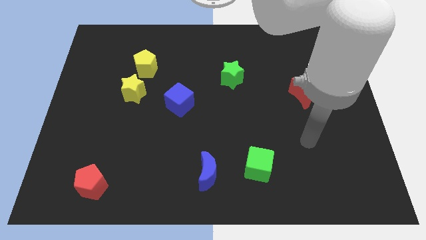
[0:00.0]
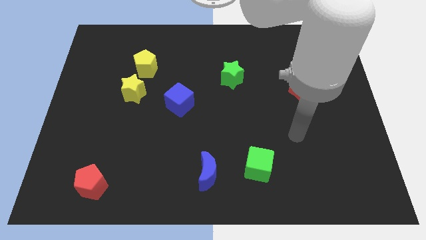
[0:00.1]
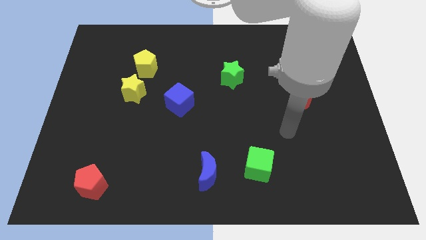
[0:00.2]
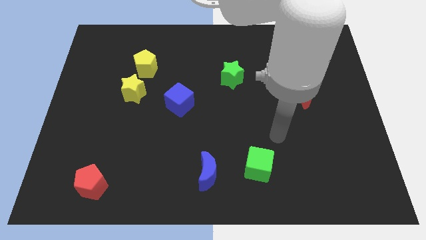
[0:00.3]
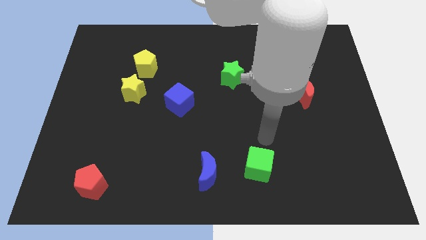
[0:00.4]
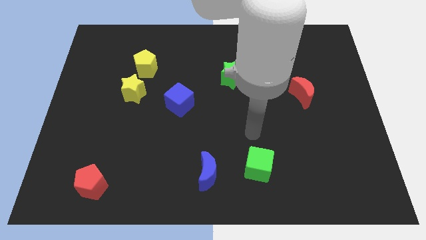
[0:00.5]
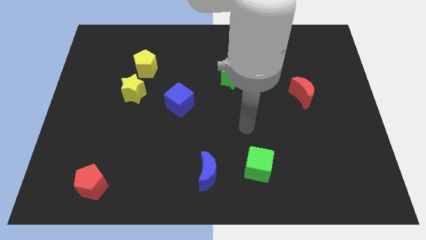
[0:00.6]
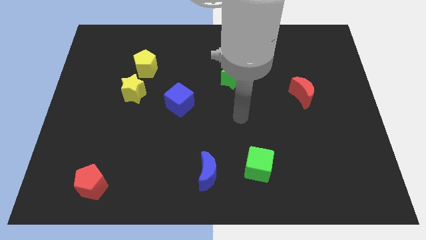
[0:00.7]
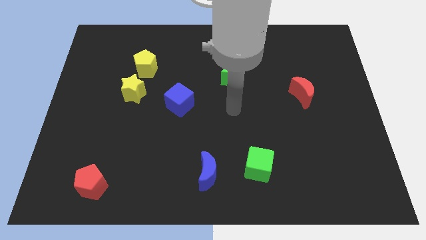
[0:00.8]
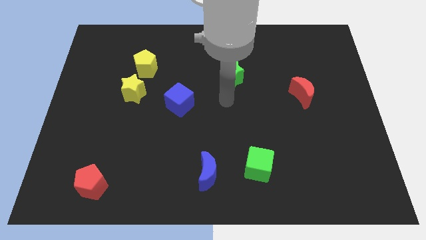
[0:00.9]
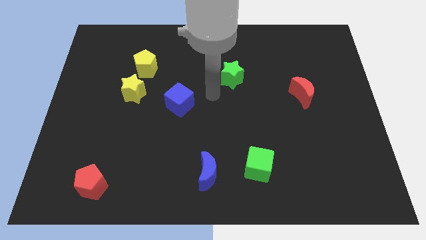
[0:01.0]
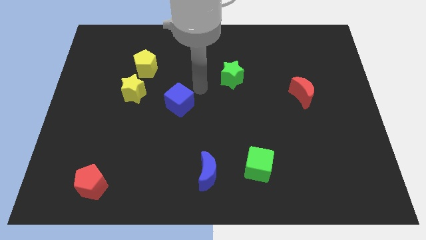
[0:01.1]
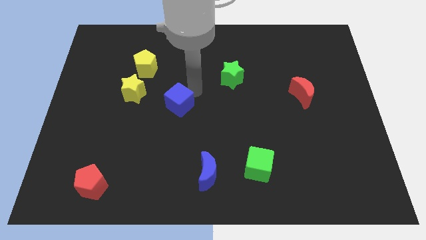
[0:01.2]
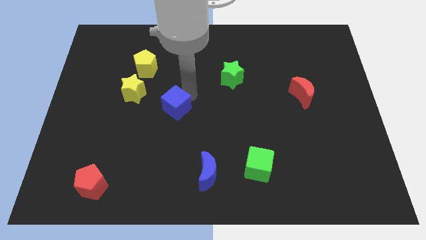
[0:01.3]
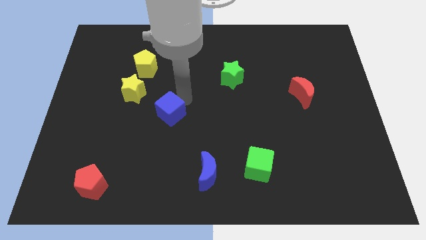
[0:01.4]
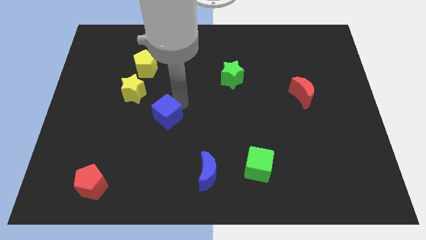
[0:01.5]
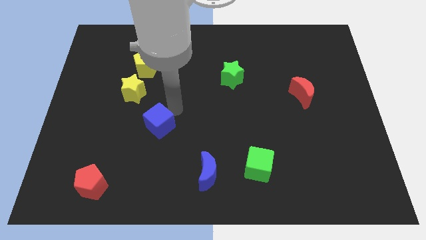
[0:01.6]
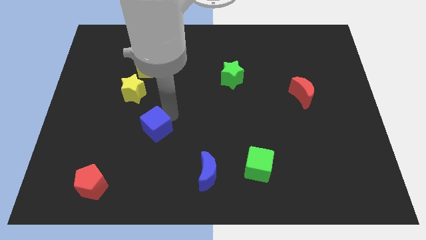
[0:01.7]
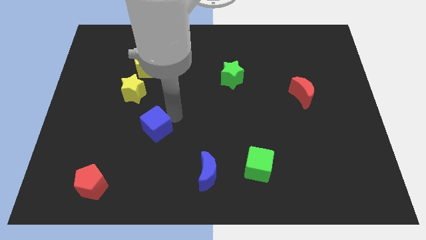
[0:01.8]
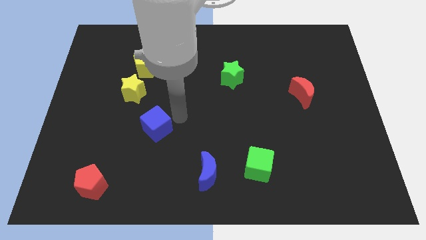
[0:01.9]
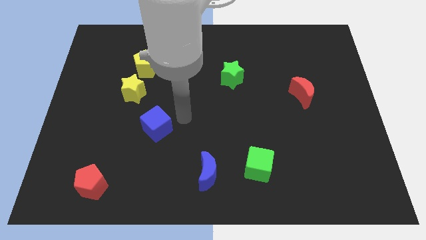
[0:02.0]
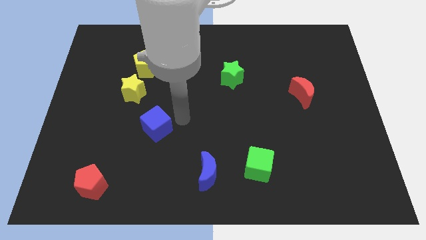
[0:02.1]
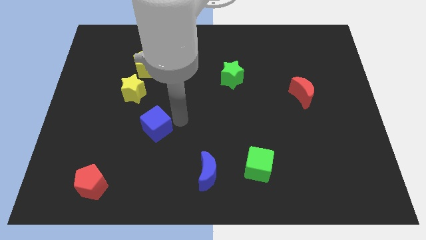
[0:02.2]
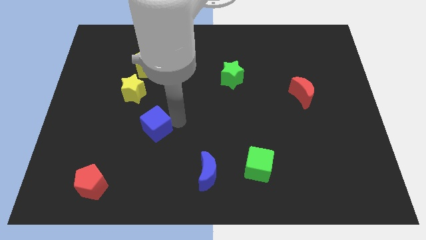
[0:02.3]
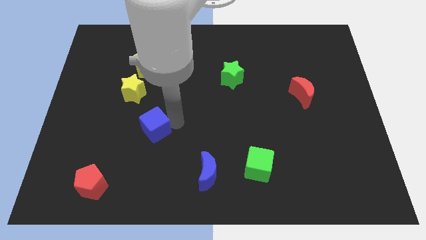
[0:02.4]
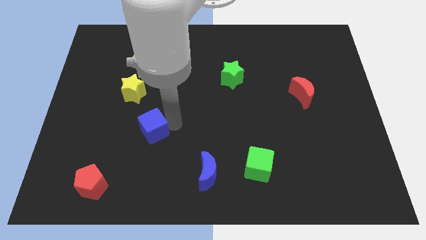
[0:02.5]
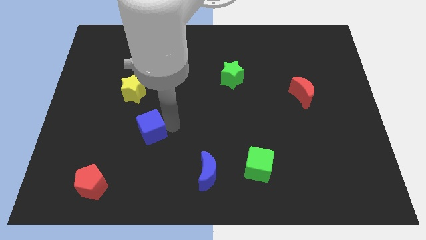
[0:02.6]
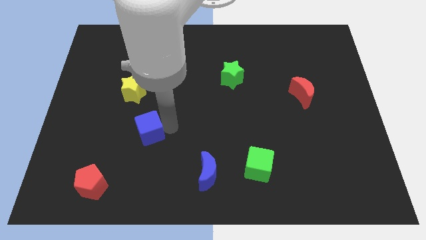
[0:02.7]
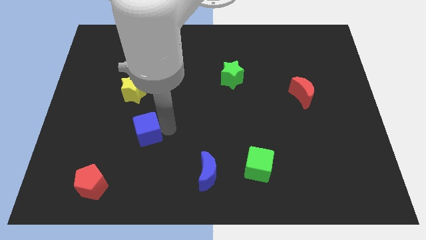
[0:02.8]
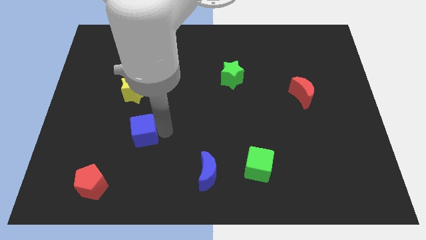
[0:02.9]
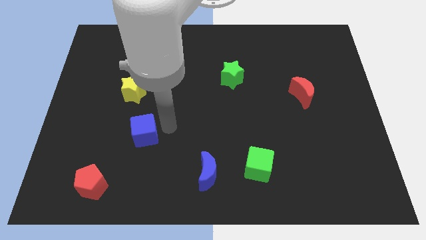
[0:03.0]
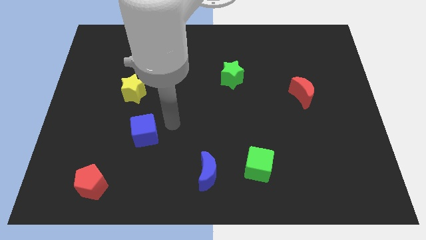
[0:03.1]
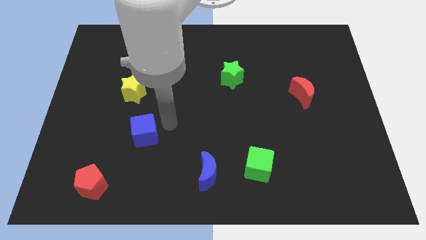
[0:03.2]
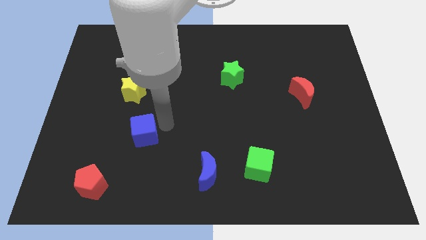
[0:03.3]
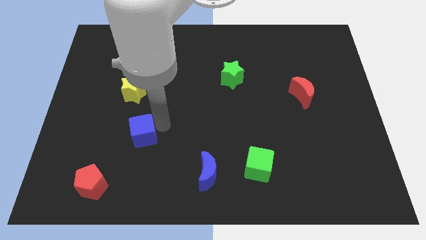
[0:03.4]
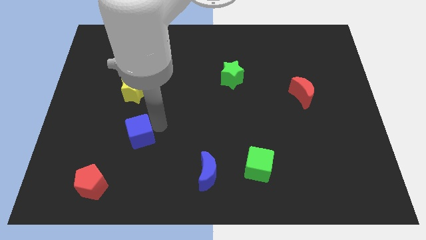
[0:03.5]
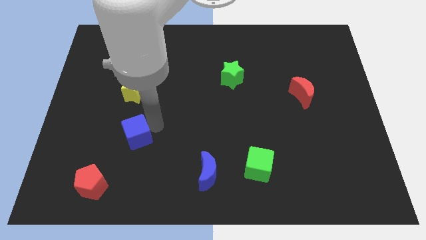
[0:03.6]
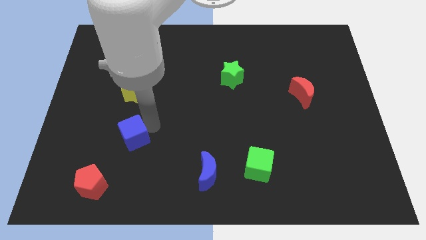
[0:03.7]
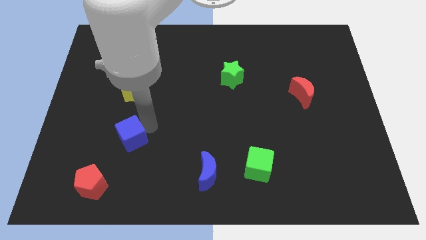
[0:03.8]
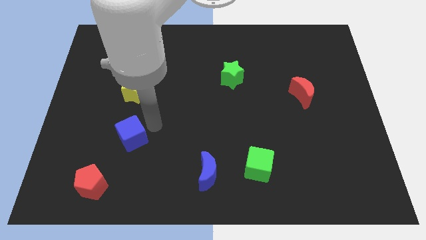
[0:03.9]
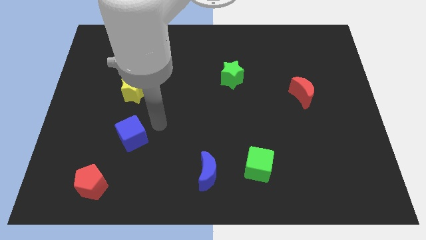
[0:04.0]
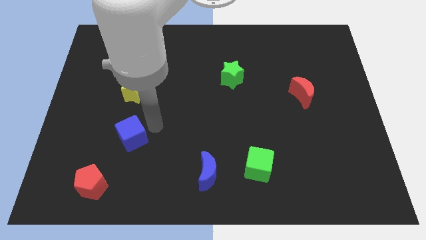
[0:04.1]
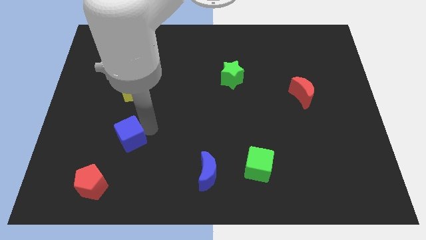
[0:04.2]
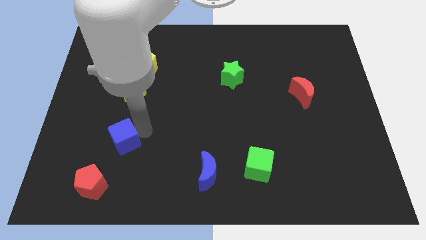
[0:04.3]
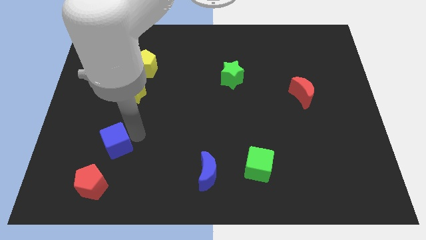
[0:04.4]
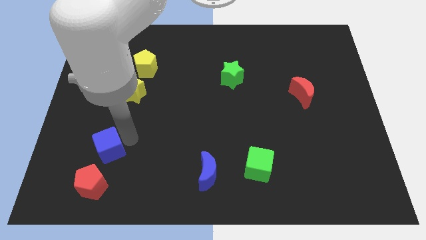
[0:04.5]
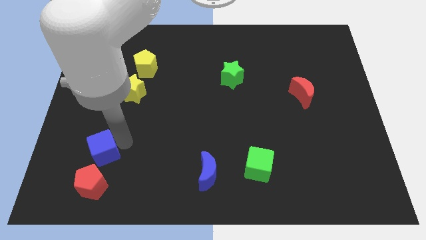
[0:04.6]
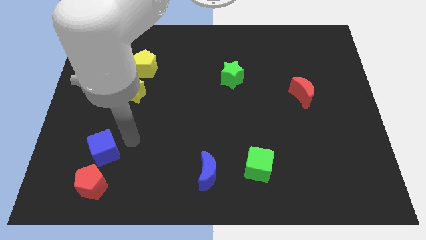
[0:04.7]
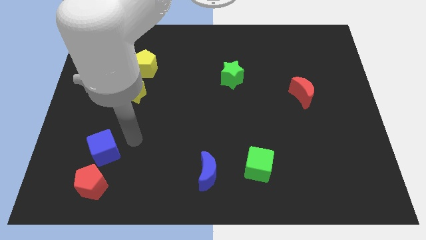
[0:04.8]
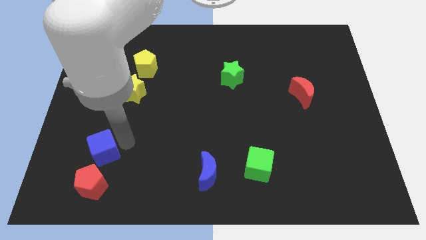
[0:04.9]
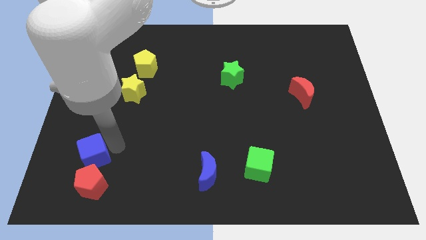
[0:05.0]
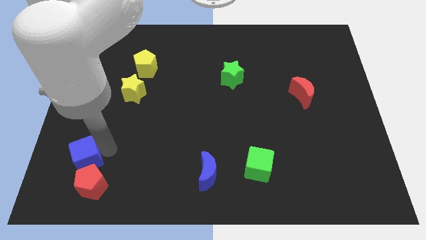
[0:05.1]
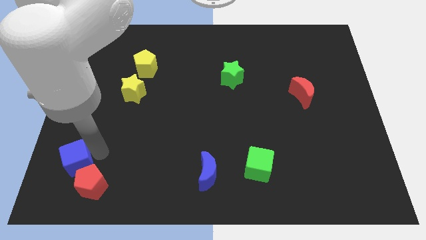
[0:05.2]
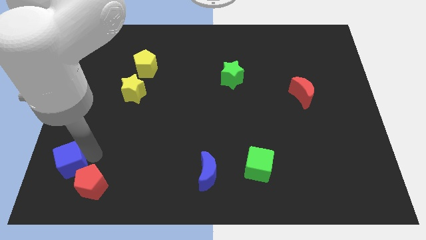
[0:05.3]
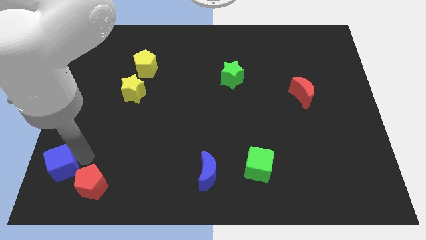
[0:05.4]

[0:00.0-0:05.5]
push the blue cube to the bottom left of the board
